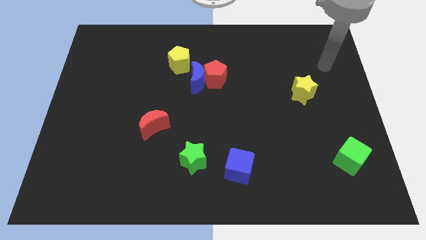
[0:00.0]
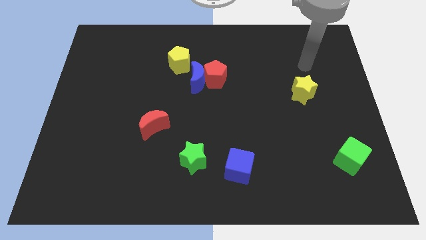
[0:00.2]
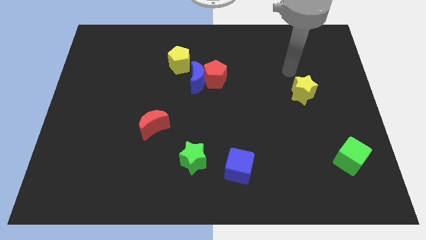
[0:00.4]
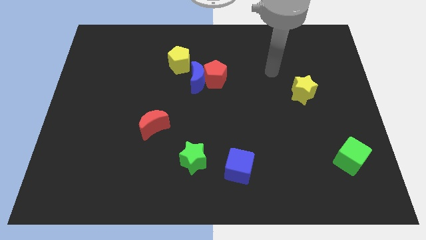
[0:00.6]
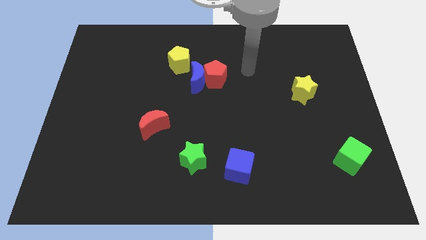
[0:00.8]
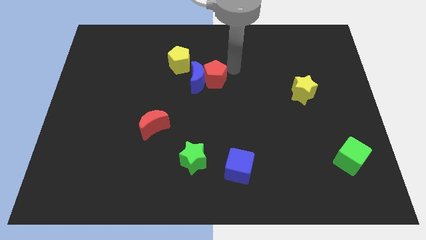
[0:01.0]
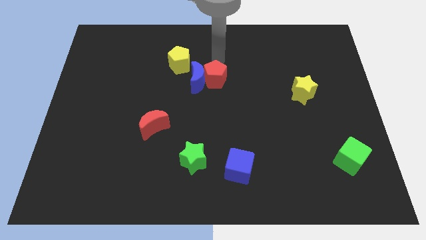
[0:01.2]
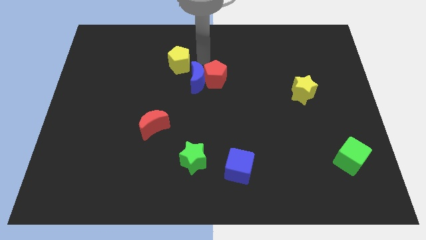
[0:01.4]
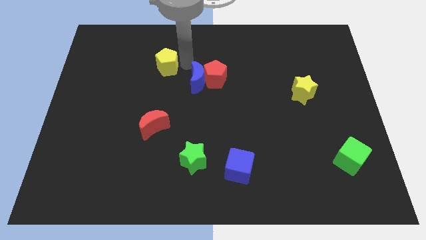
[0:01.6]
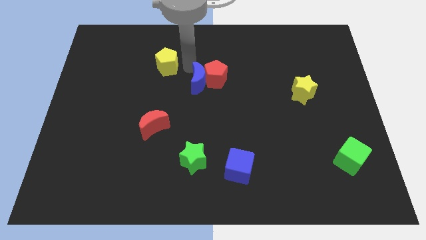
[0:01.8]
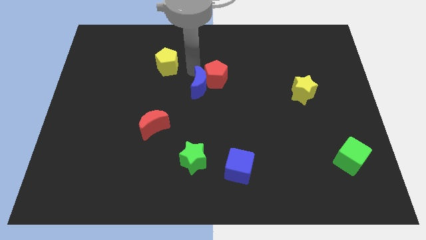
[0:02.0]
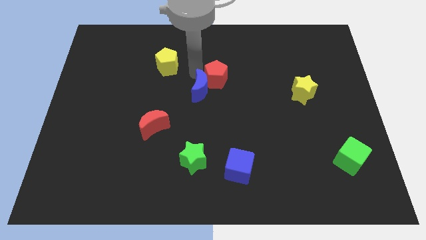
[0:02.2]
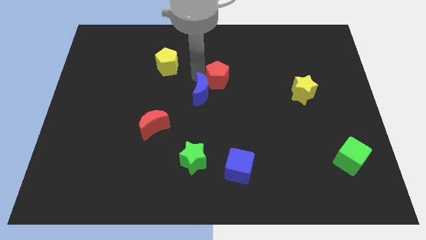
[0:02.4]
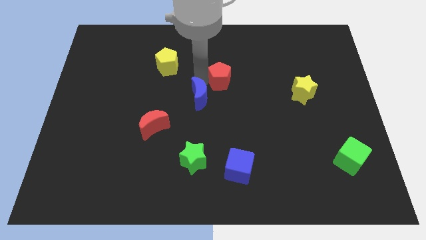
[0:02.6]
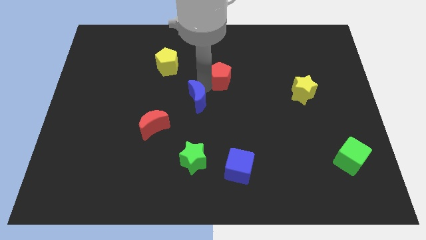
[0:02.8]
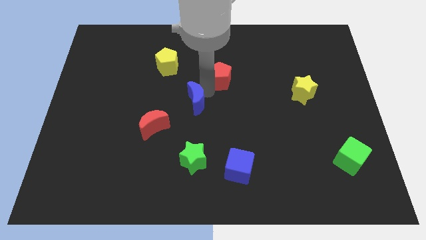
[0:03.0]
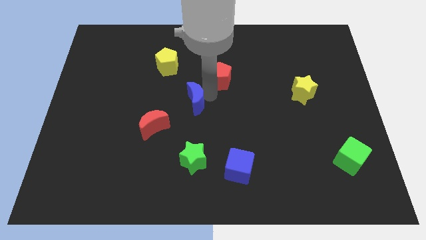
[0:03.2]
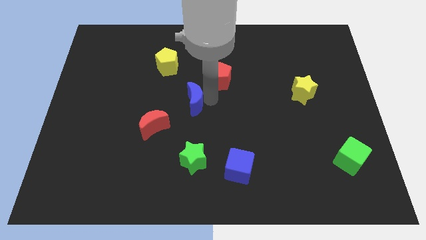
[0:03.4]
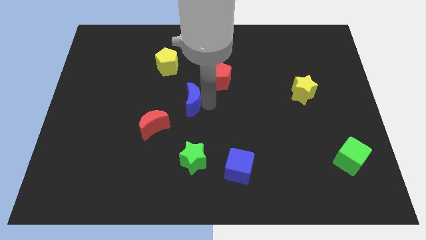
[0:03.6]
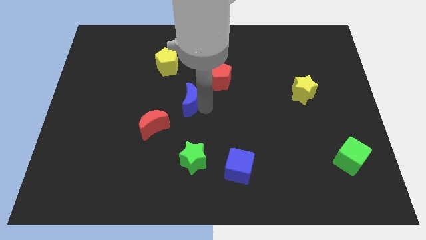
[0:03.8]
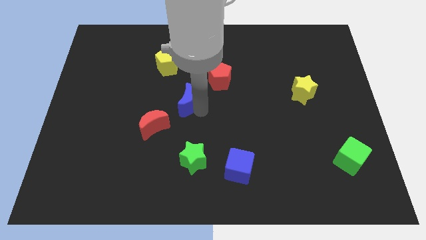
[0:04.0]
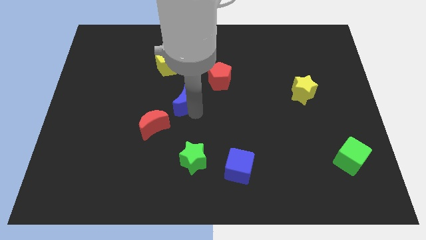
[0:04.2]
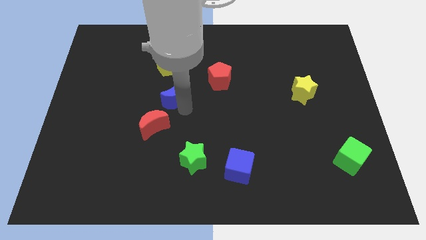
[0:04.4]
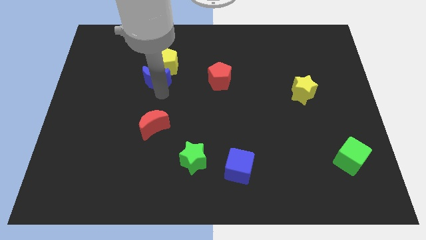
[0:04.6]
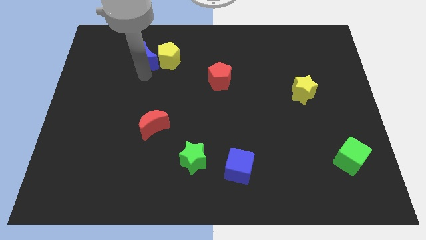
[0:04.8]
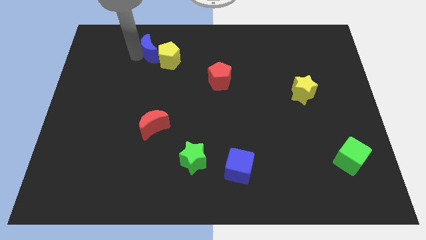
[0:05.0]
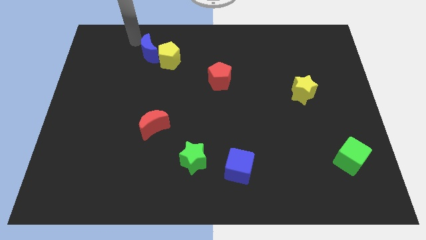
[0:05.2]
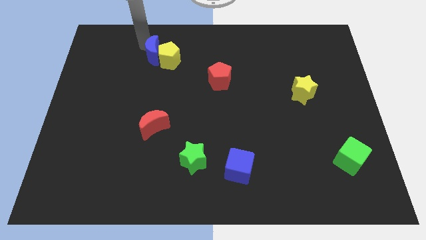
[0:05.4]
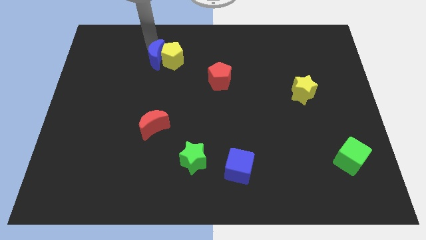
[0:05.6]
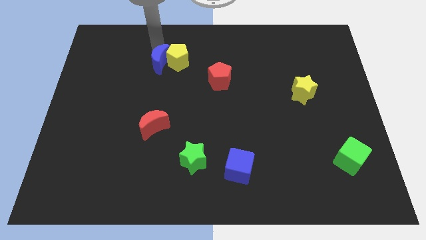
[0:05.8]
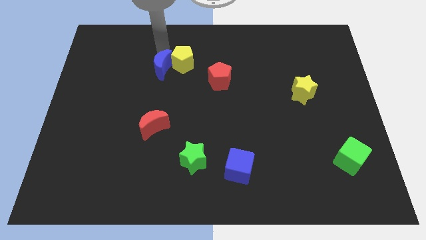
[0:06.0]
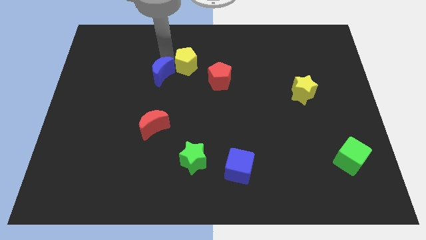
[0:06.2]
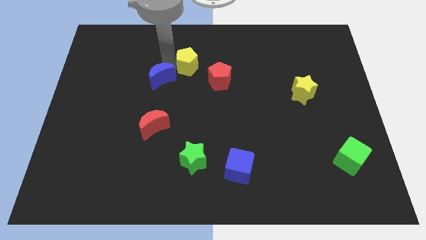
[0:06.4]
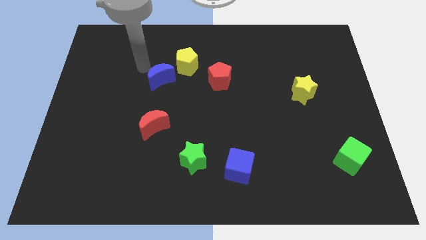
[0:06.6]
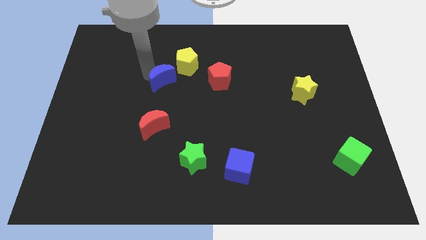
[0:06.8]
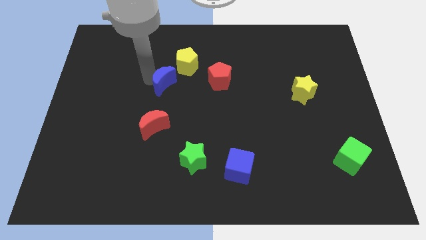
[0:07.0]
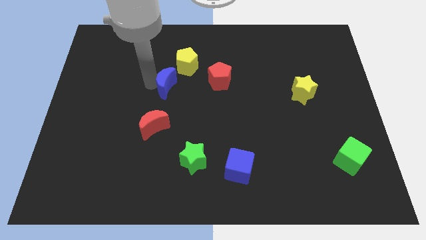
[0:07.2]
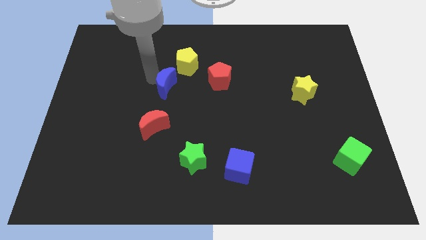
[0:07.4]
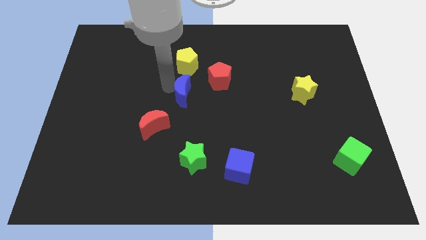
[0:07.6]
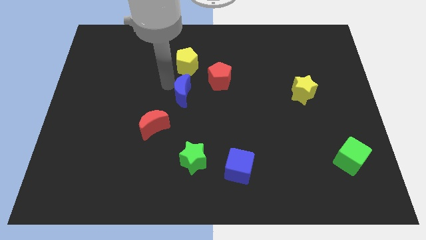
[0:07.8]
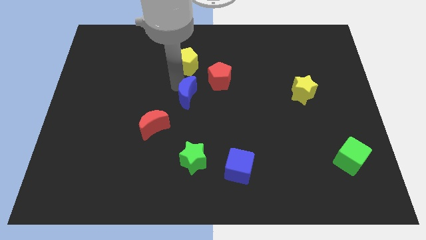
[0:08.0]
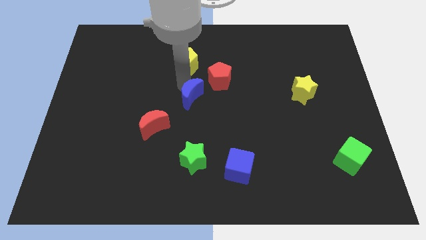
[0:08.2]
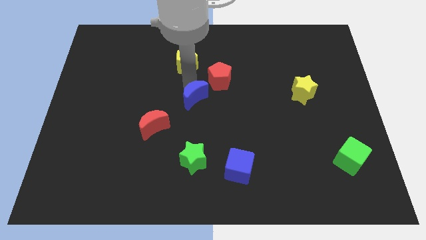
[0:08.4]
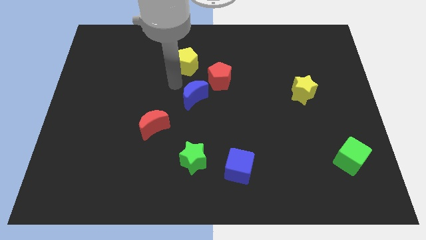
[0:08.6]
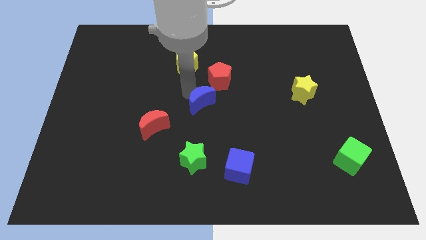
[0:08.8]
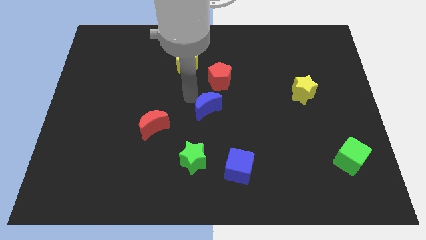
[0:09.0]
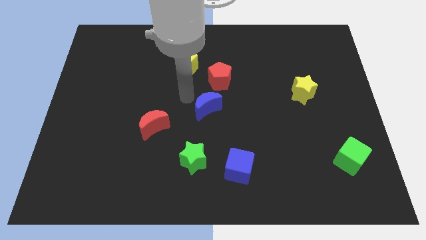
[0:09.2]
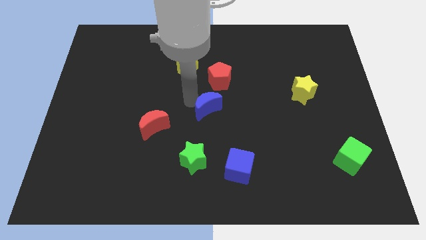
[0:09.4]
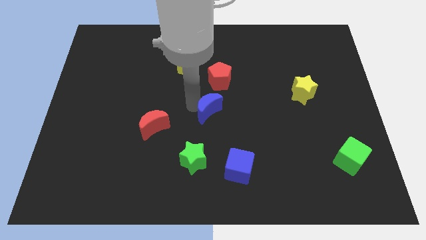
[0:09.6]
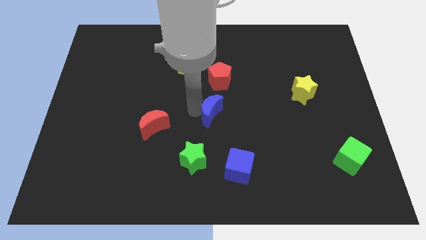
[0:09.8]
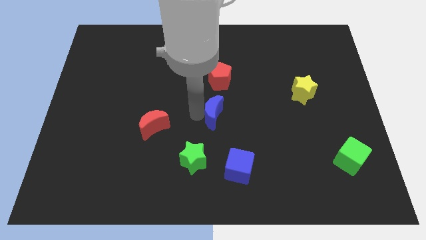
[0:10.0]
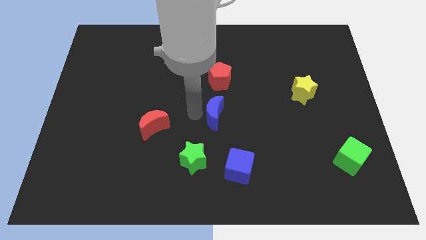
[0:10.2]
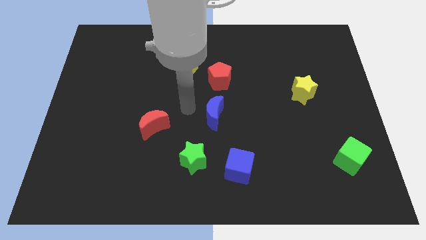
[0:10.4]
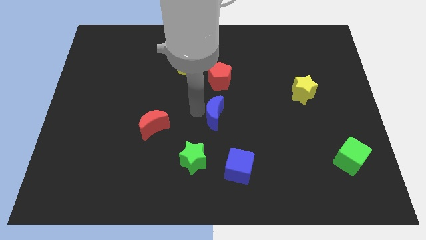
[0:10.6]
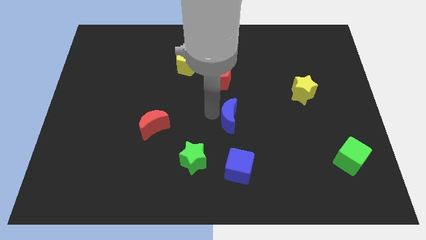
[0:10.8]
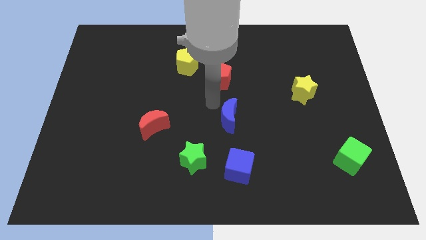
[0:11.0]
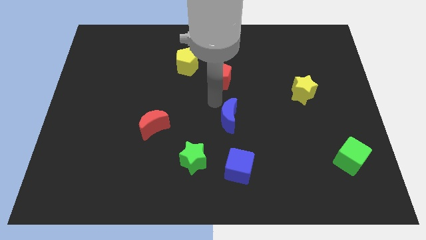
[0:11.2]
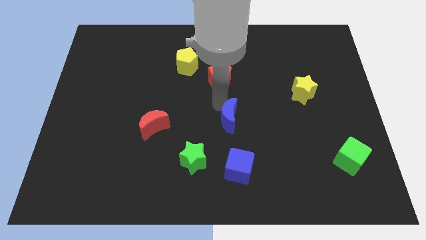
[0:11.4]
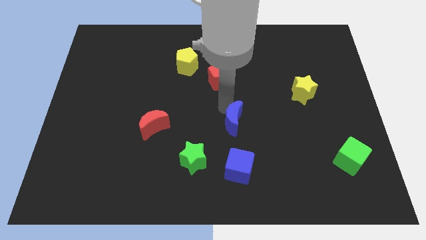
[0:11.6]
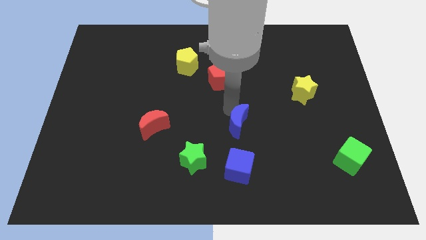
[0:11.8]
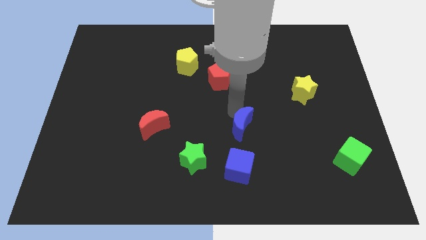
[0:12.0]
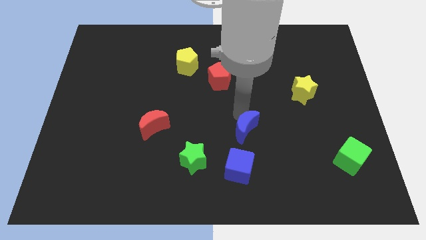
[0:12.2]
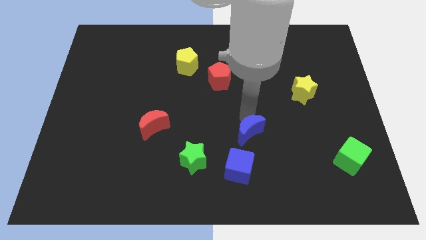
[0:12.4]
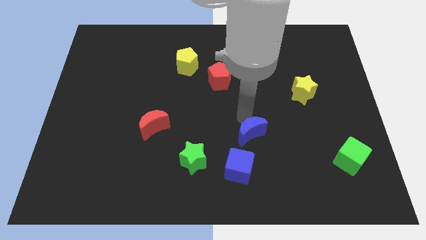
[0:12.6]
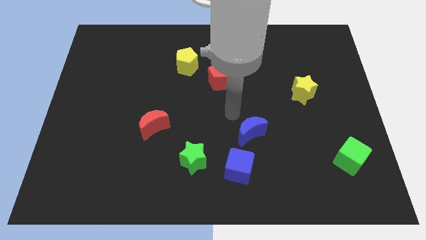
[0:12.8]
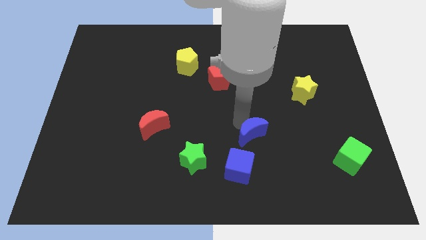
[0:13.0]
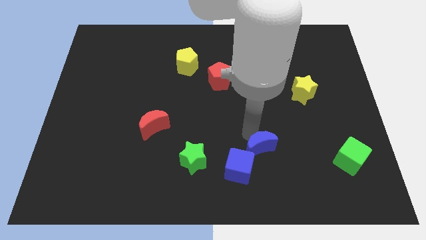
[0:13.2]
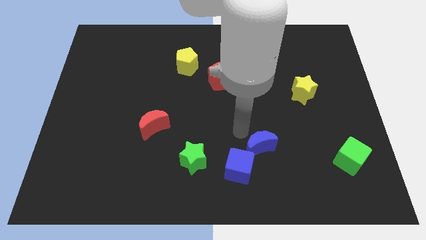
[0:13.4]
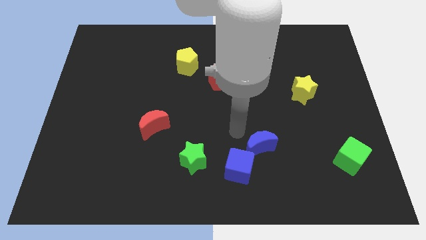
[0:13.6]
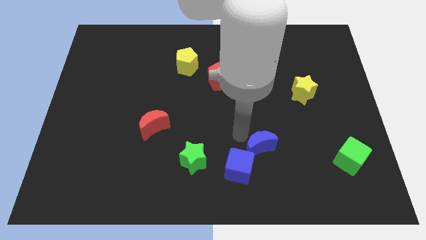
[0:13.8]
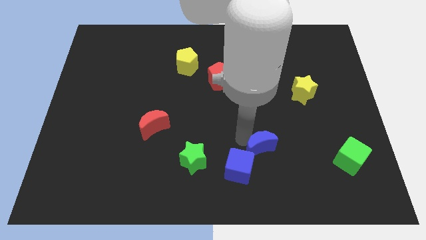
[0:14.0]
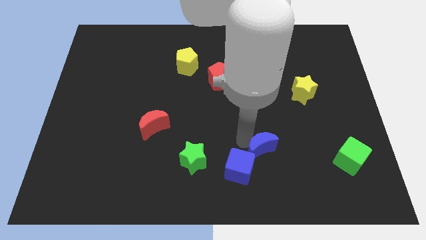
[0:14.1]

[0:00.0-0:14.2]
put the blue moon right of the blue cube

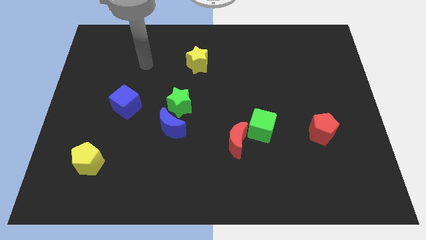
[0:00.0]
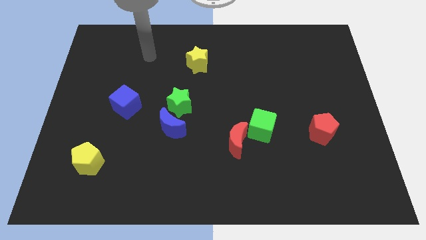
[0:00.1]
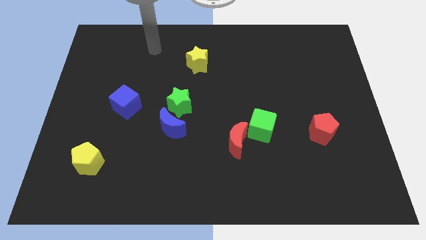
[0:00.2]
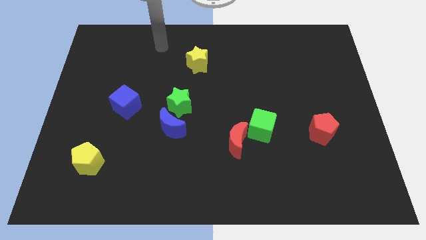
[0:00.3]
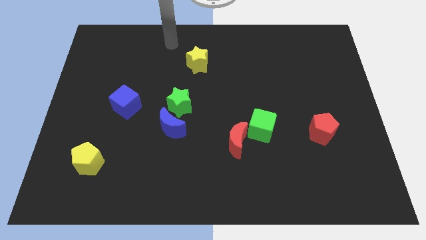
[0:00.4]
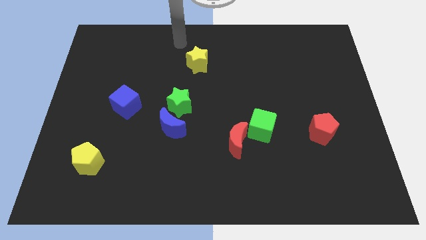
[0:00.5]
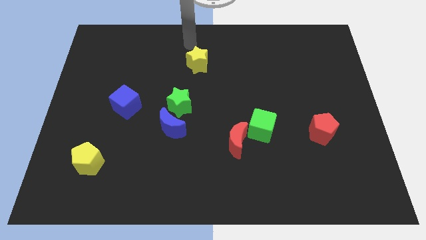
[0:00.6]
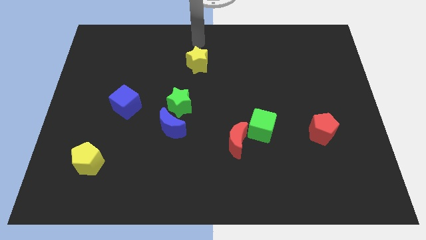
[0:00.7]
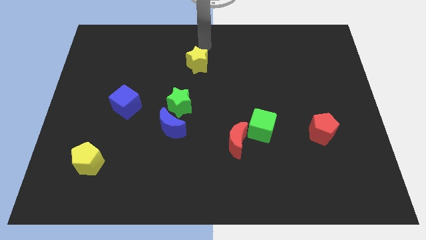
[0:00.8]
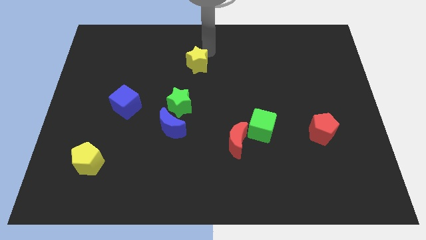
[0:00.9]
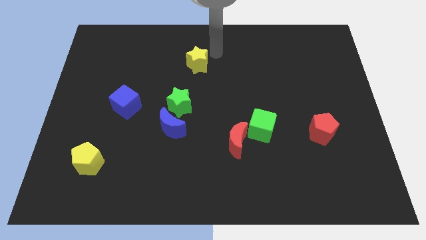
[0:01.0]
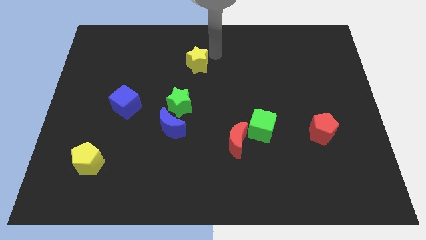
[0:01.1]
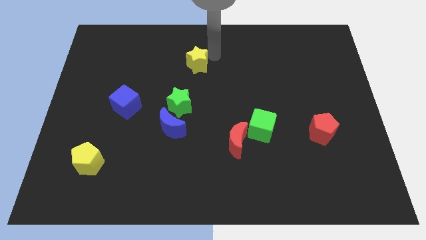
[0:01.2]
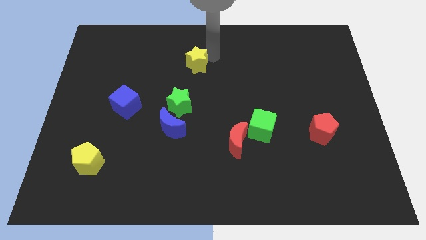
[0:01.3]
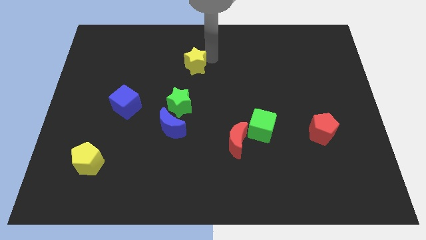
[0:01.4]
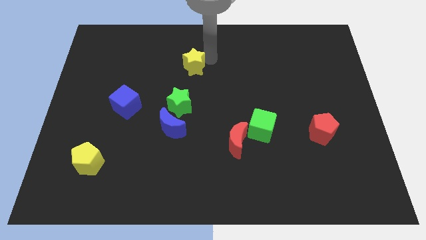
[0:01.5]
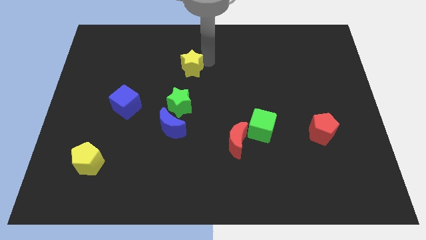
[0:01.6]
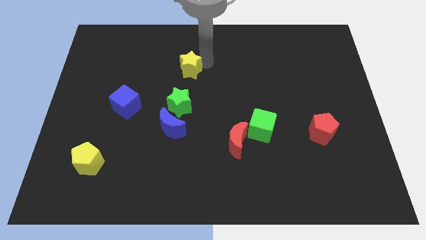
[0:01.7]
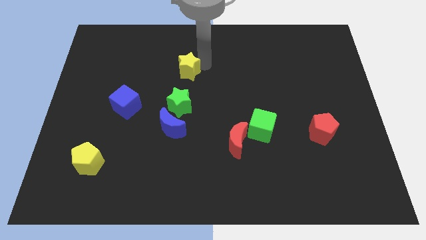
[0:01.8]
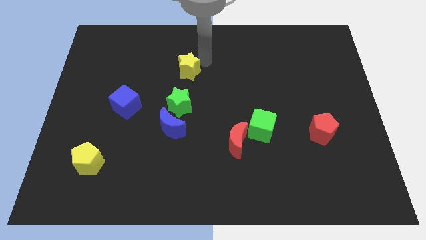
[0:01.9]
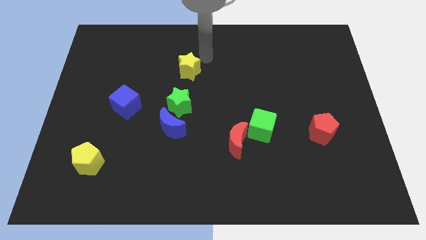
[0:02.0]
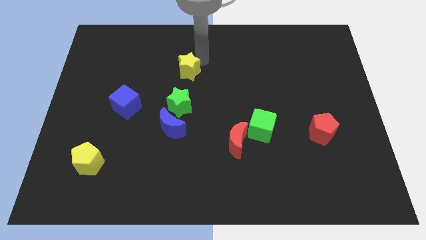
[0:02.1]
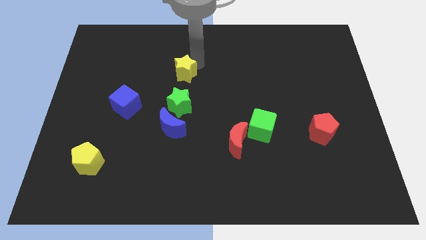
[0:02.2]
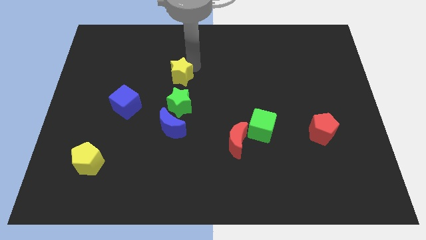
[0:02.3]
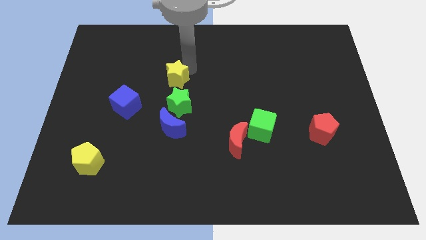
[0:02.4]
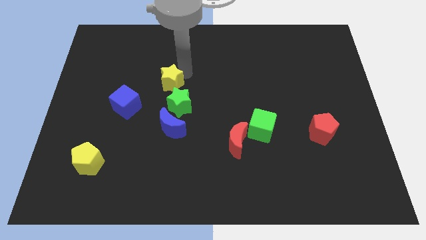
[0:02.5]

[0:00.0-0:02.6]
slide the yellow star to the top right side of the blue cube
